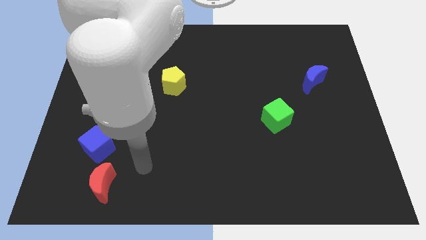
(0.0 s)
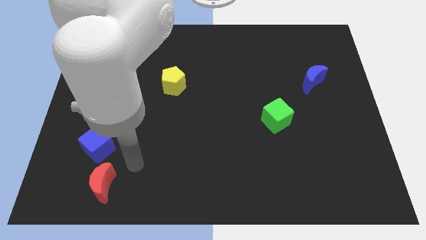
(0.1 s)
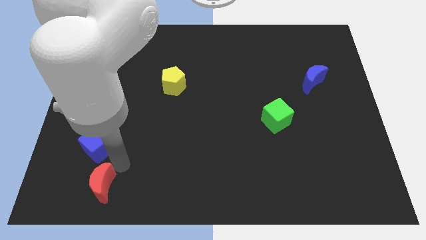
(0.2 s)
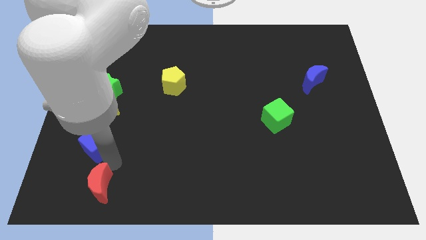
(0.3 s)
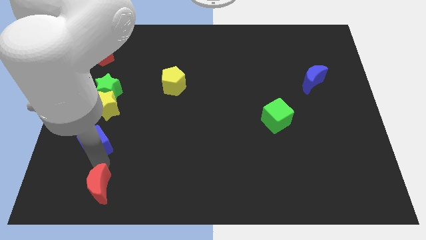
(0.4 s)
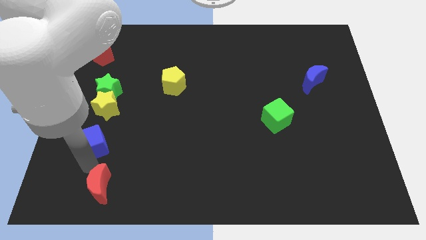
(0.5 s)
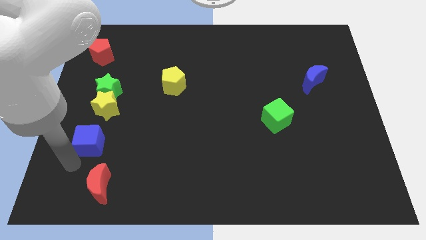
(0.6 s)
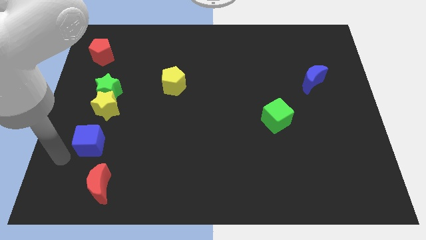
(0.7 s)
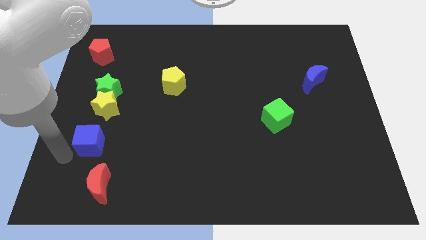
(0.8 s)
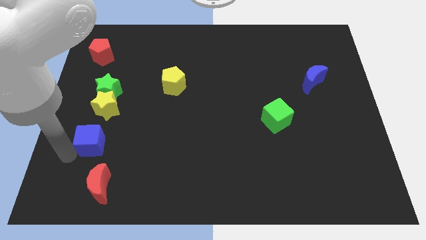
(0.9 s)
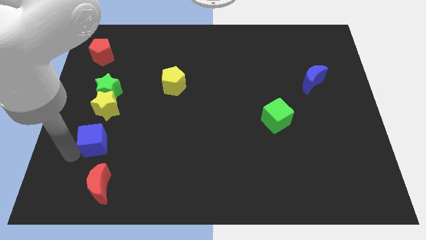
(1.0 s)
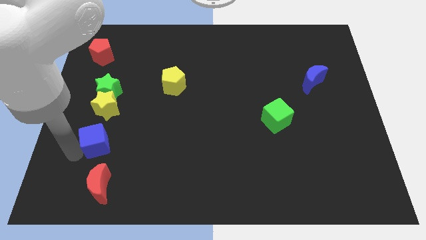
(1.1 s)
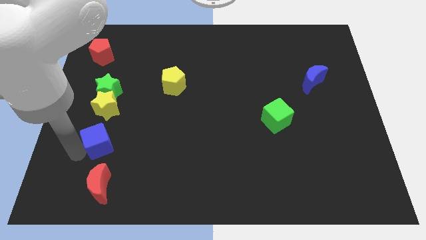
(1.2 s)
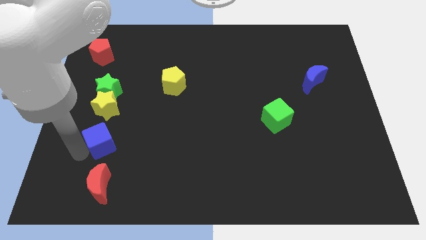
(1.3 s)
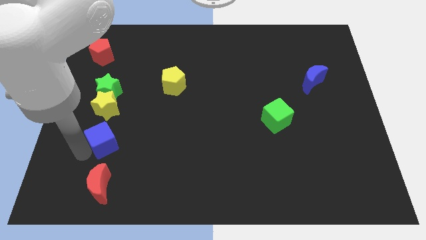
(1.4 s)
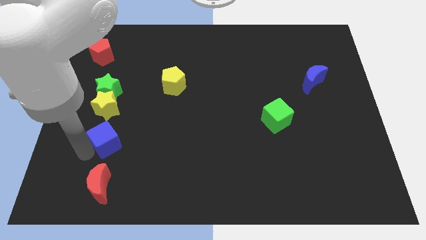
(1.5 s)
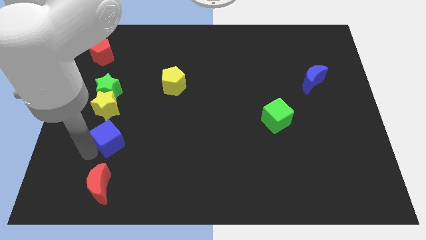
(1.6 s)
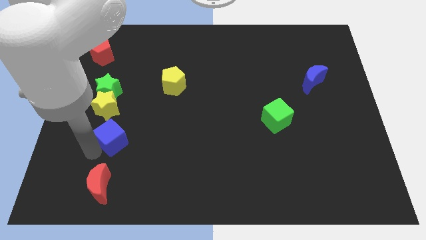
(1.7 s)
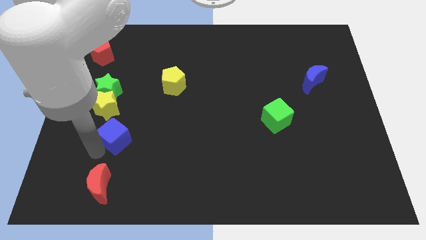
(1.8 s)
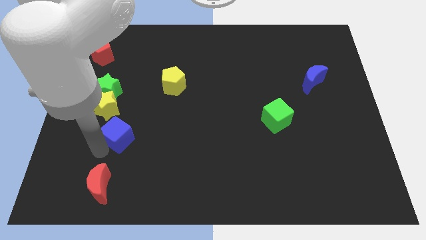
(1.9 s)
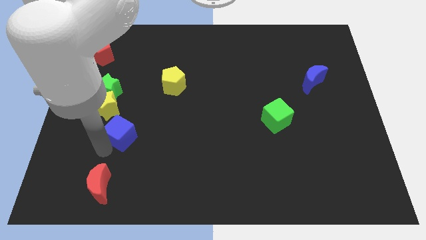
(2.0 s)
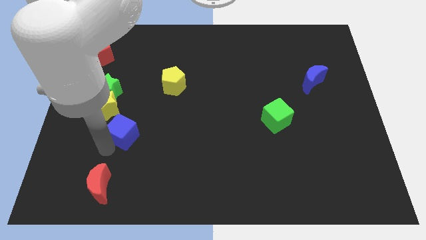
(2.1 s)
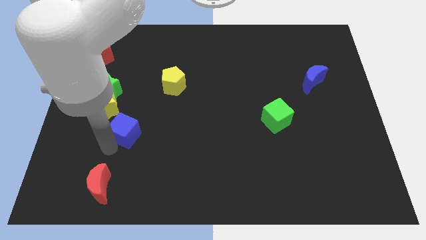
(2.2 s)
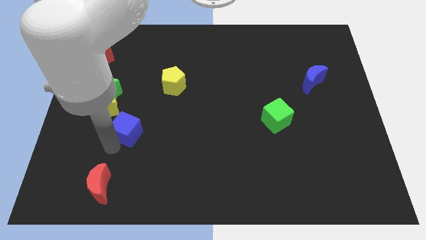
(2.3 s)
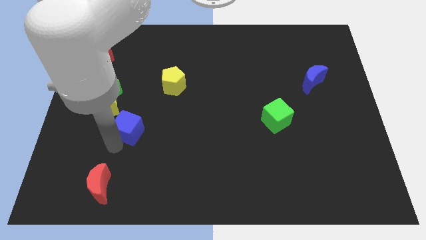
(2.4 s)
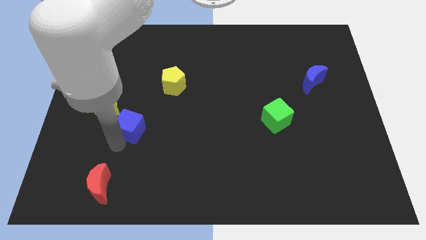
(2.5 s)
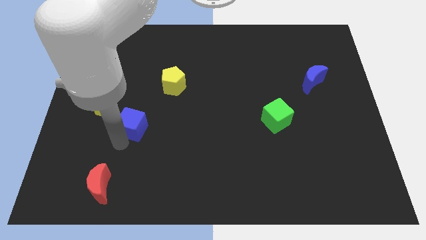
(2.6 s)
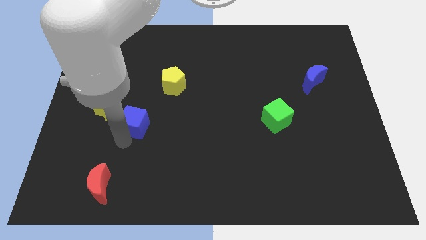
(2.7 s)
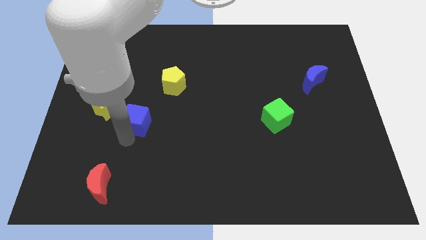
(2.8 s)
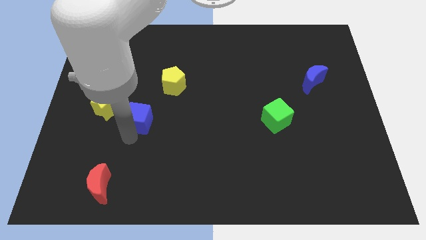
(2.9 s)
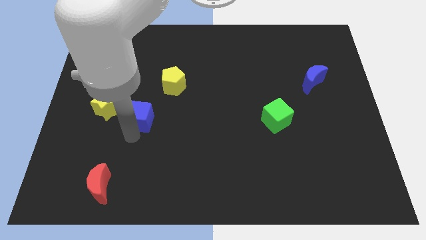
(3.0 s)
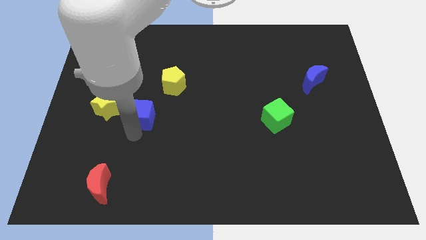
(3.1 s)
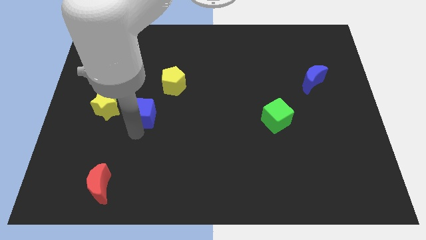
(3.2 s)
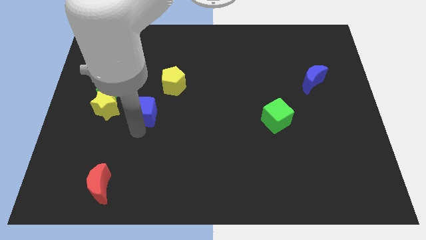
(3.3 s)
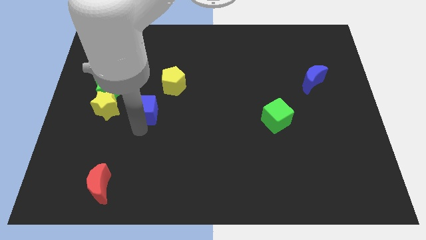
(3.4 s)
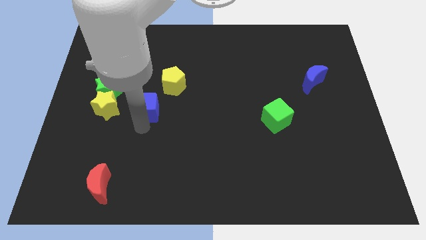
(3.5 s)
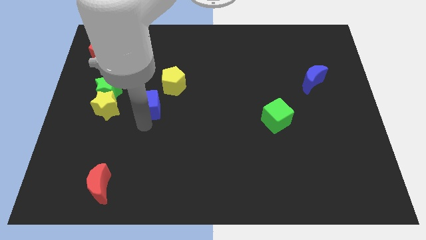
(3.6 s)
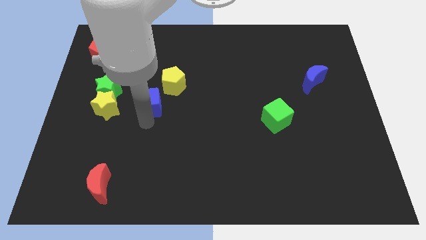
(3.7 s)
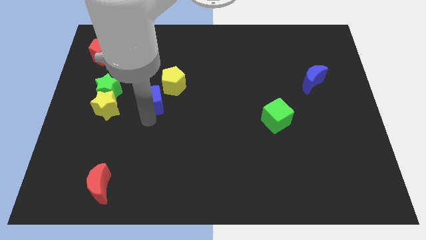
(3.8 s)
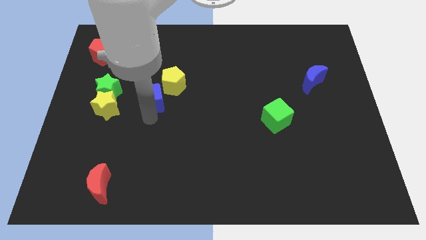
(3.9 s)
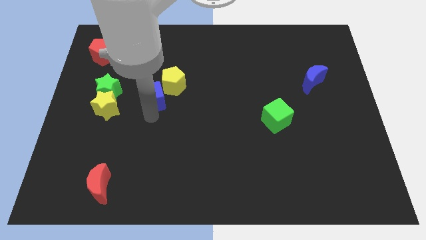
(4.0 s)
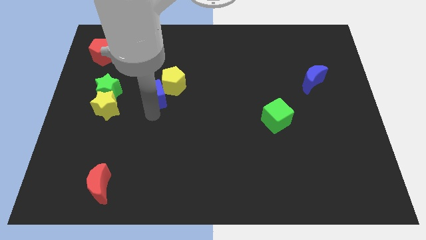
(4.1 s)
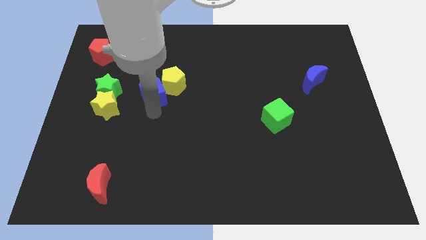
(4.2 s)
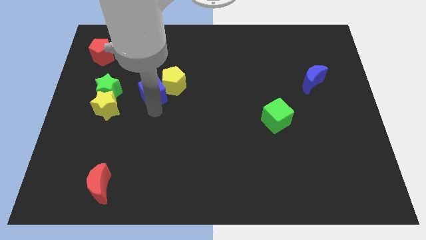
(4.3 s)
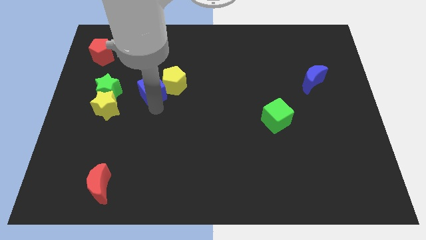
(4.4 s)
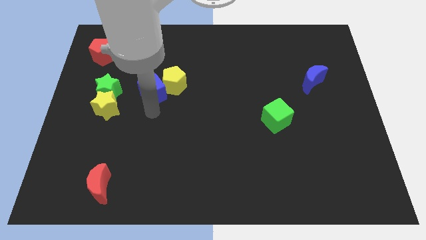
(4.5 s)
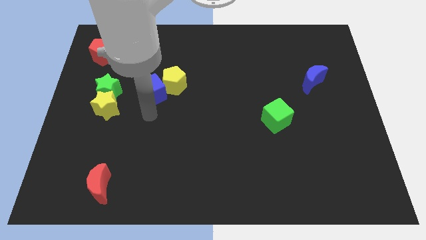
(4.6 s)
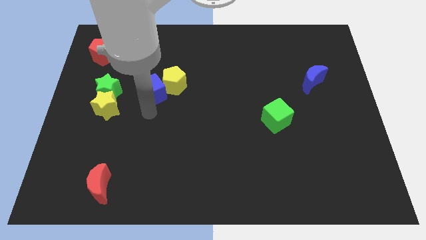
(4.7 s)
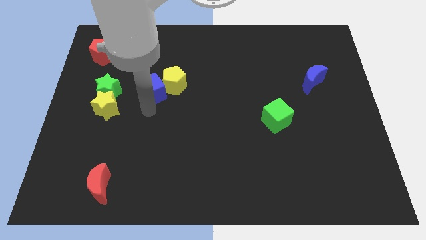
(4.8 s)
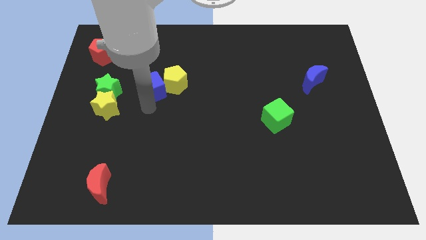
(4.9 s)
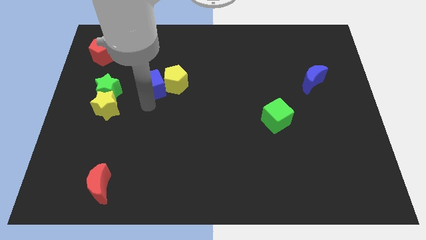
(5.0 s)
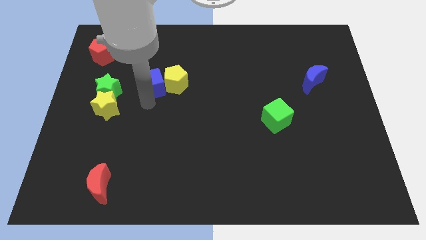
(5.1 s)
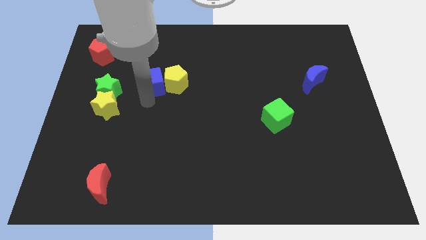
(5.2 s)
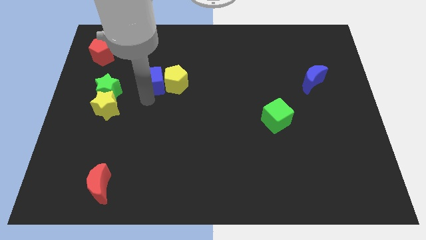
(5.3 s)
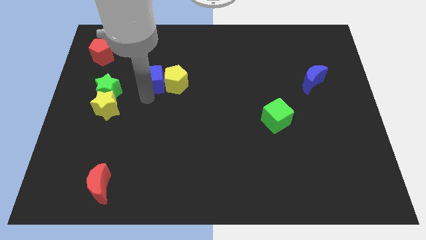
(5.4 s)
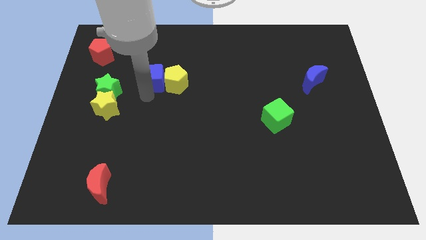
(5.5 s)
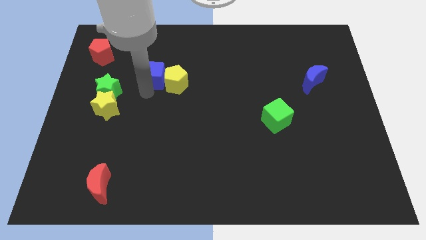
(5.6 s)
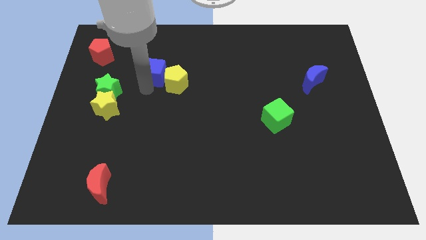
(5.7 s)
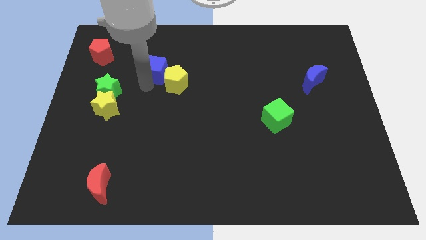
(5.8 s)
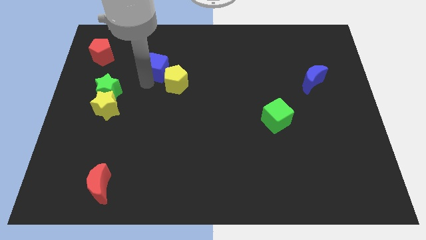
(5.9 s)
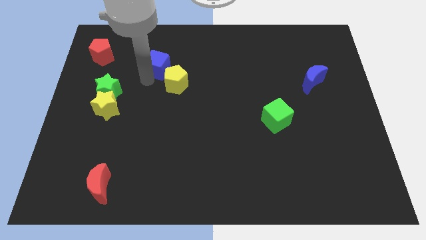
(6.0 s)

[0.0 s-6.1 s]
move the blue cube to the top side of the yellow pentagon

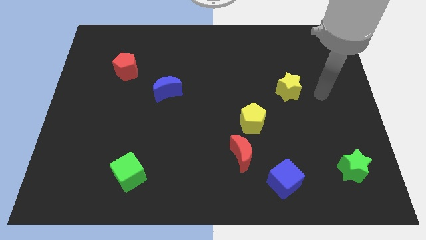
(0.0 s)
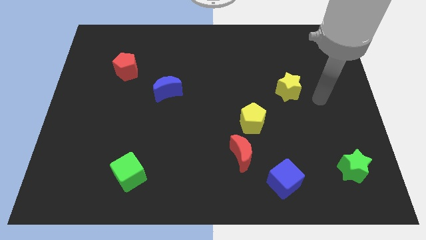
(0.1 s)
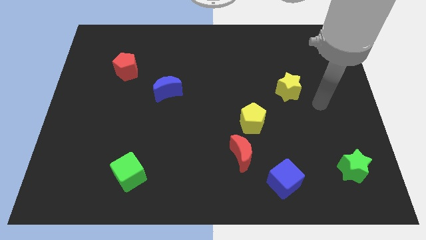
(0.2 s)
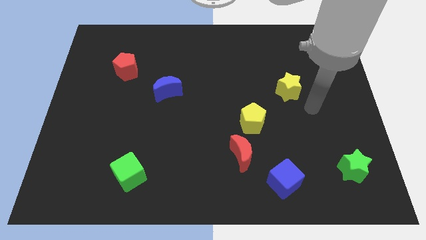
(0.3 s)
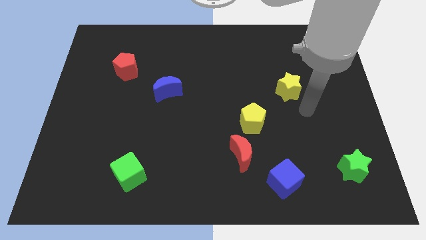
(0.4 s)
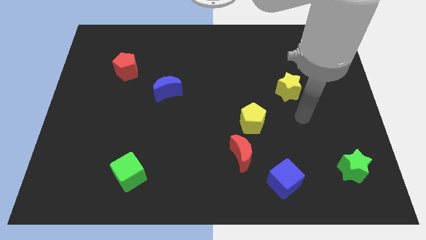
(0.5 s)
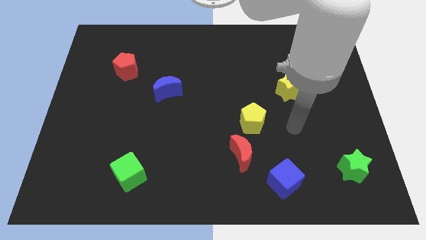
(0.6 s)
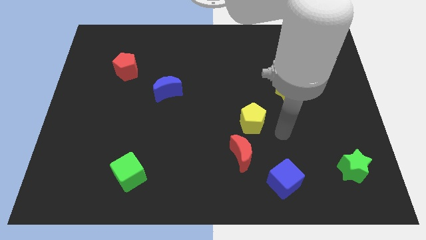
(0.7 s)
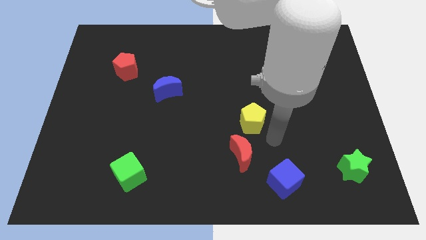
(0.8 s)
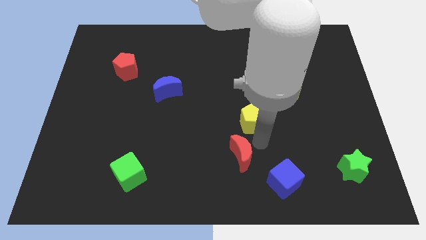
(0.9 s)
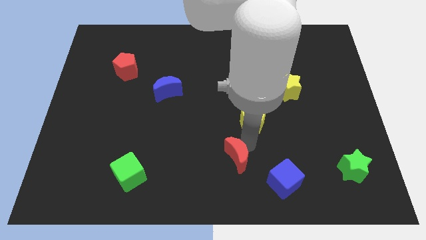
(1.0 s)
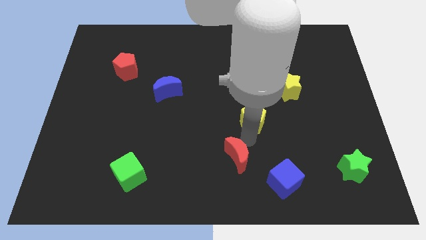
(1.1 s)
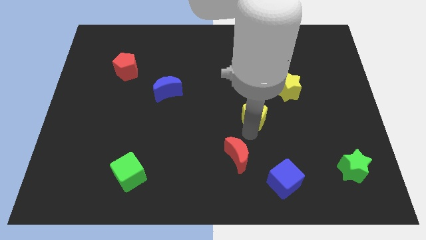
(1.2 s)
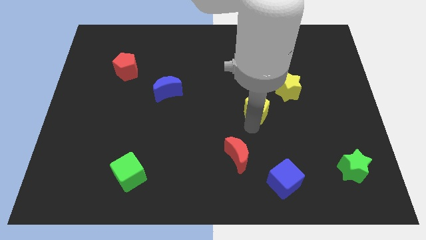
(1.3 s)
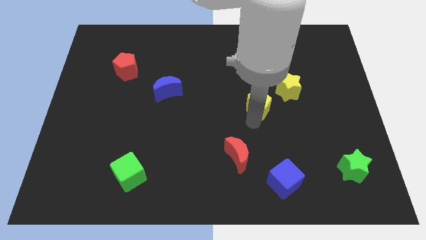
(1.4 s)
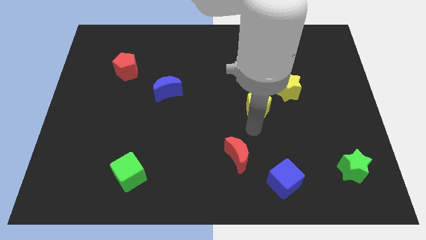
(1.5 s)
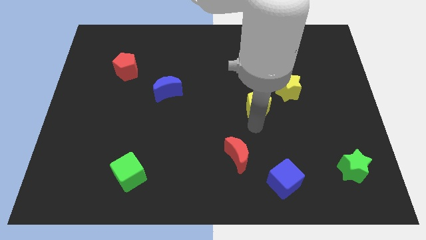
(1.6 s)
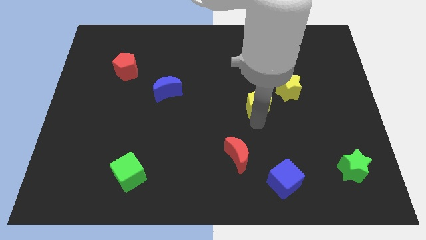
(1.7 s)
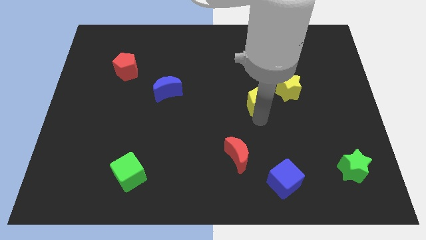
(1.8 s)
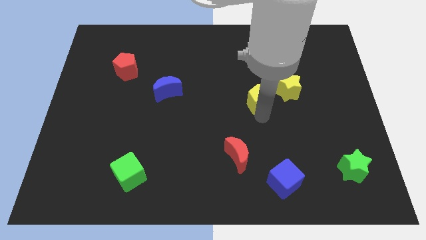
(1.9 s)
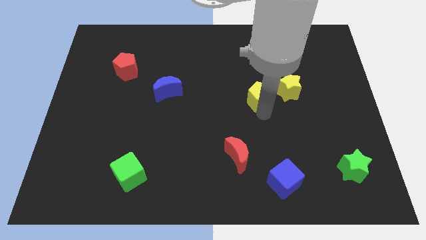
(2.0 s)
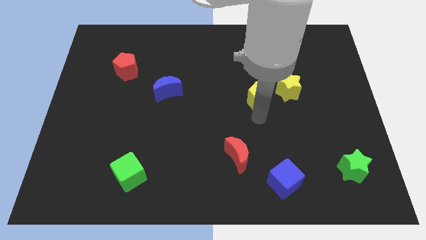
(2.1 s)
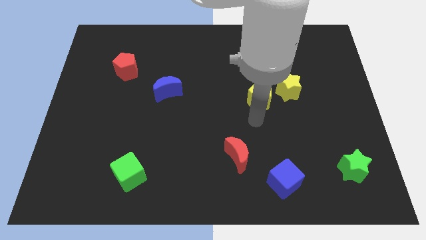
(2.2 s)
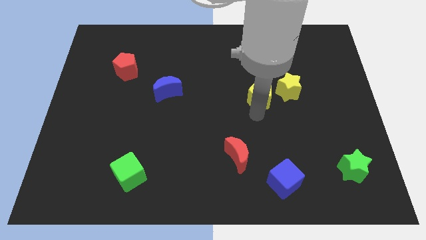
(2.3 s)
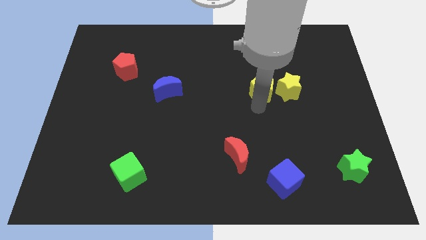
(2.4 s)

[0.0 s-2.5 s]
push the yellow pentagon to the top left of the yellow star

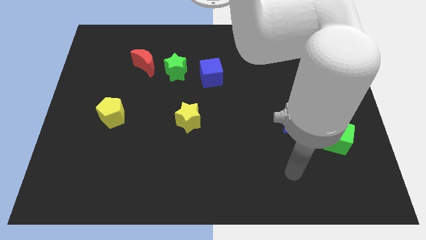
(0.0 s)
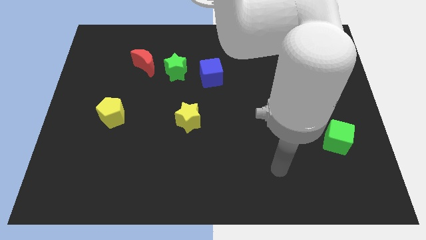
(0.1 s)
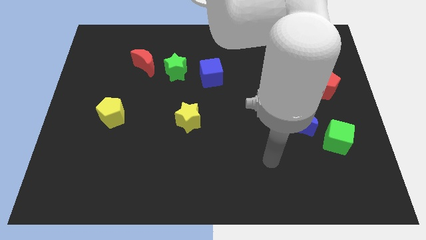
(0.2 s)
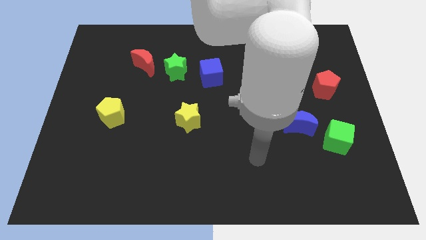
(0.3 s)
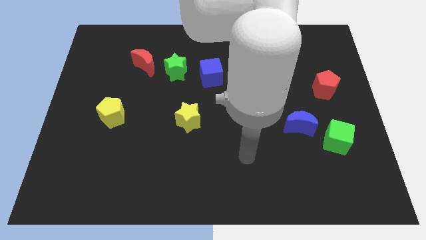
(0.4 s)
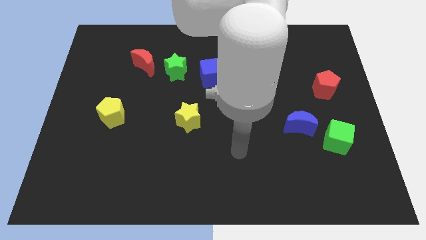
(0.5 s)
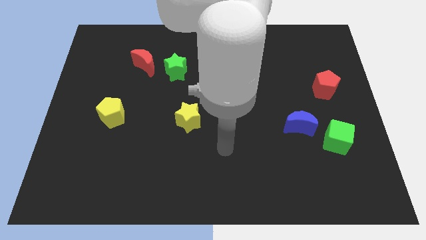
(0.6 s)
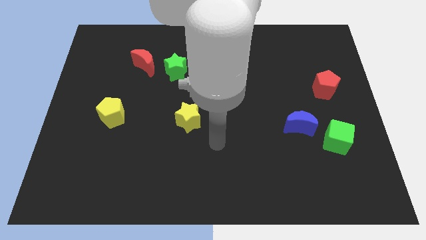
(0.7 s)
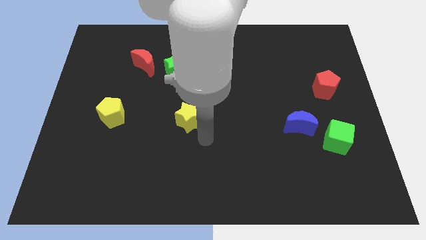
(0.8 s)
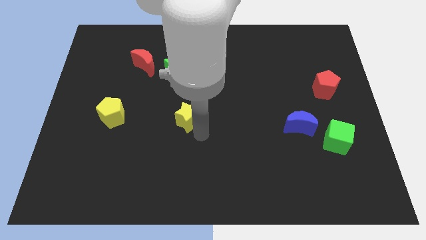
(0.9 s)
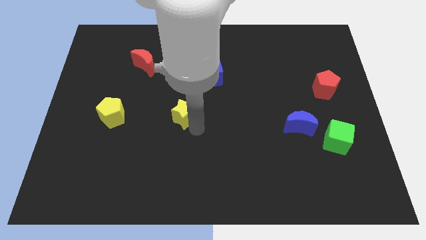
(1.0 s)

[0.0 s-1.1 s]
put the yellow star below the green star
